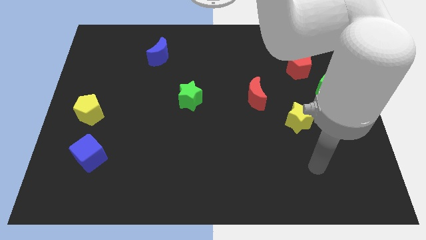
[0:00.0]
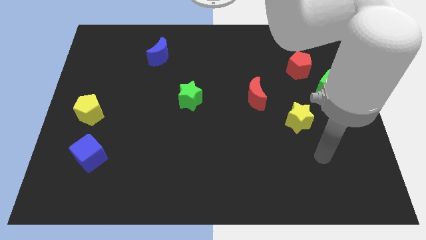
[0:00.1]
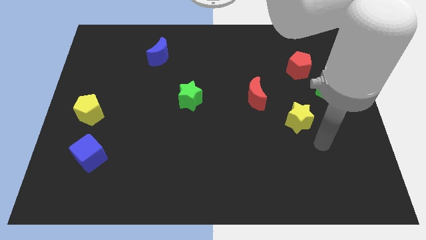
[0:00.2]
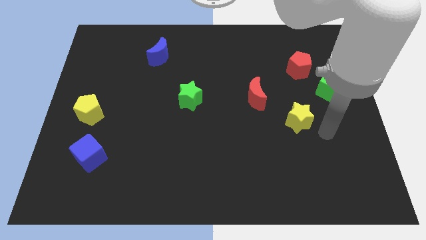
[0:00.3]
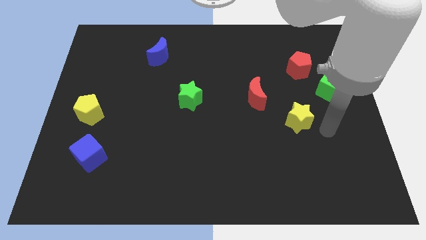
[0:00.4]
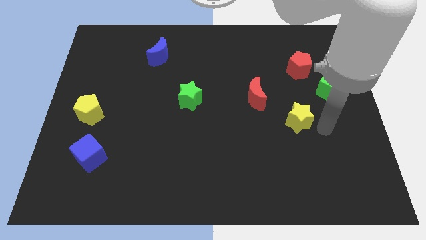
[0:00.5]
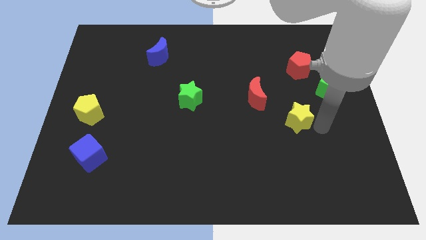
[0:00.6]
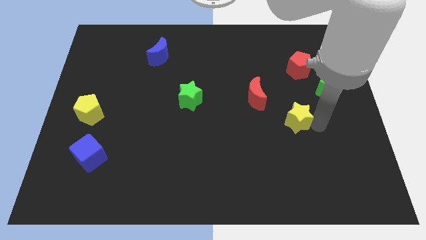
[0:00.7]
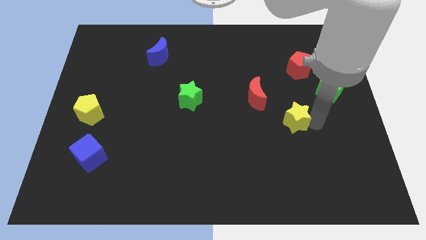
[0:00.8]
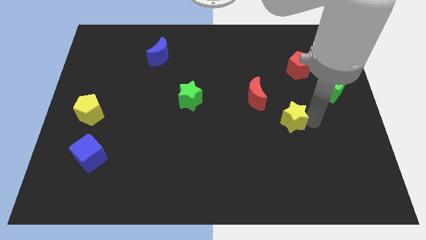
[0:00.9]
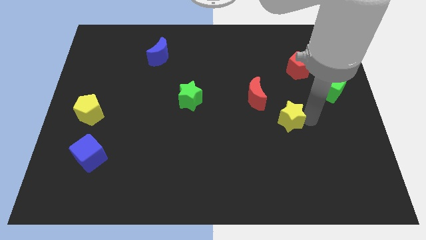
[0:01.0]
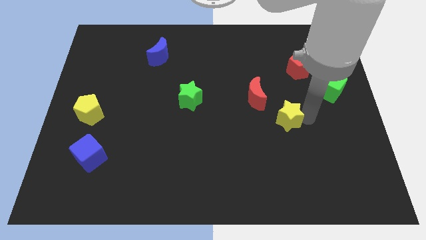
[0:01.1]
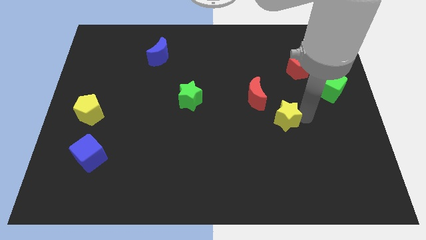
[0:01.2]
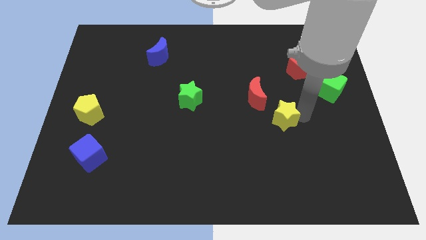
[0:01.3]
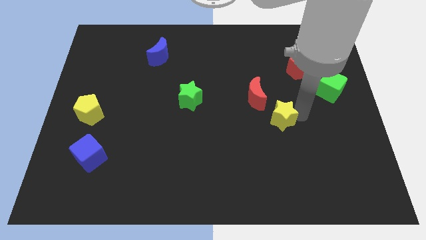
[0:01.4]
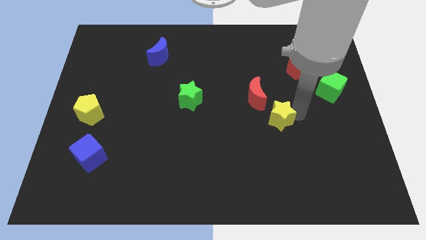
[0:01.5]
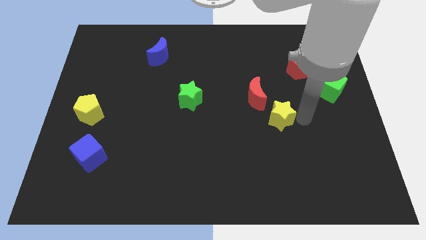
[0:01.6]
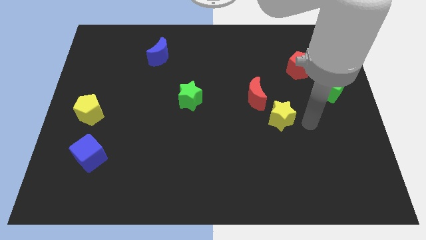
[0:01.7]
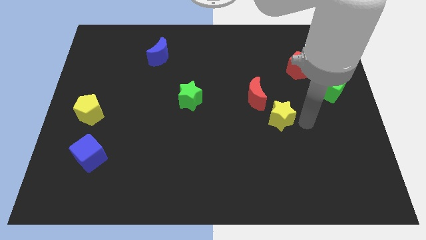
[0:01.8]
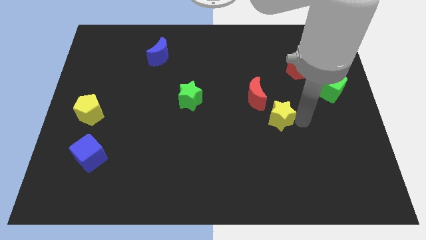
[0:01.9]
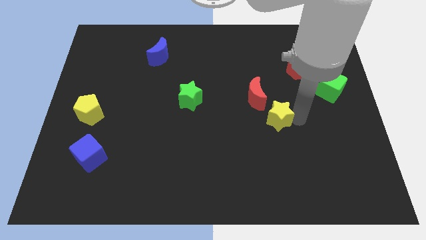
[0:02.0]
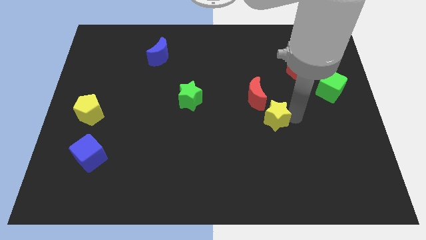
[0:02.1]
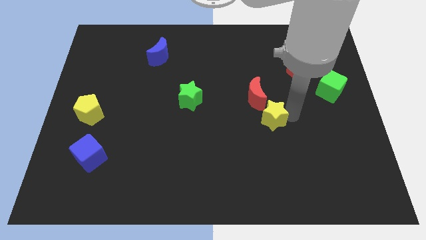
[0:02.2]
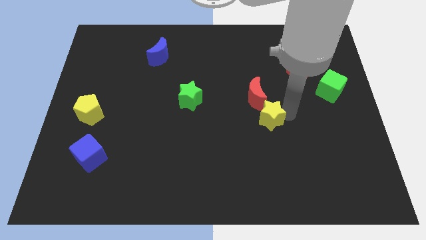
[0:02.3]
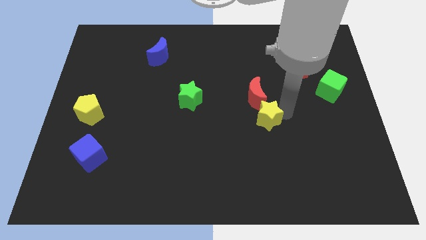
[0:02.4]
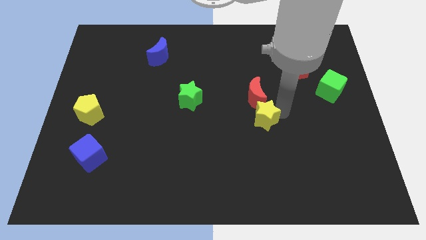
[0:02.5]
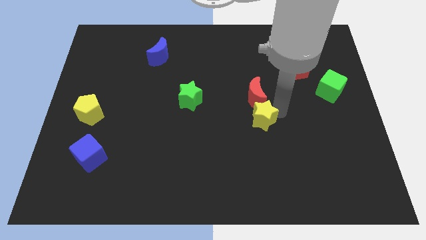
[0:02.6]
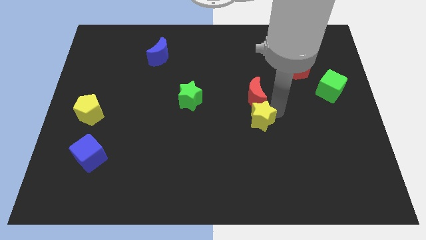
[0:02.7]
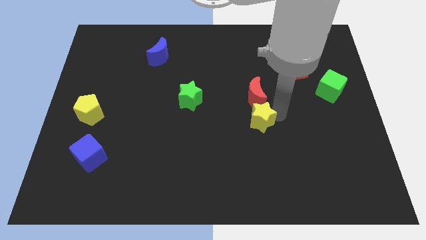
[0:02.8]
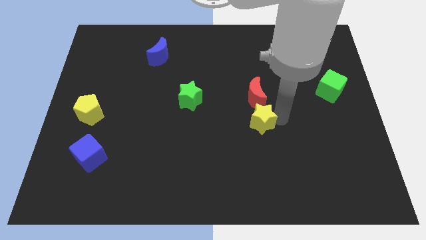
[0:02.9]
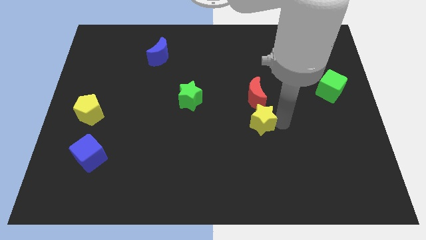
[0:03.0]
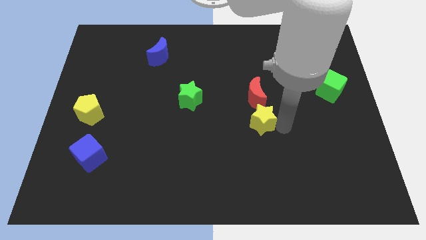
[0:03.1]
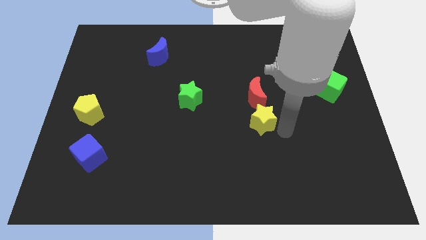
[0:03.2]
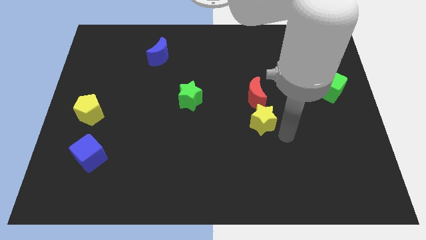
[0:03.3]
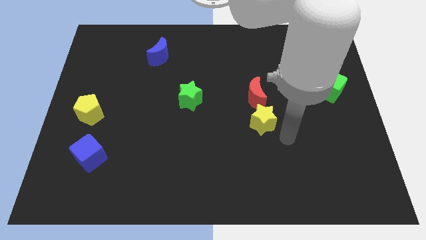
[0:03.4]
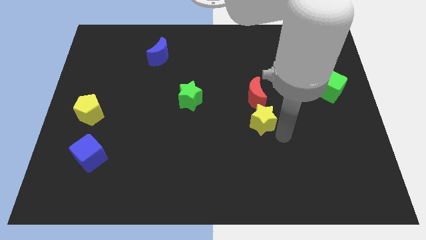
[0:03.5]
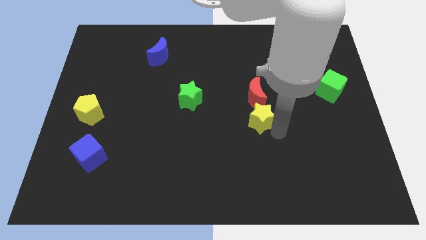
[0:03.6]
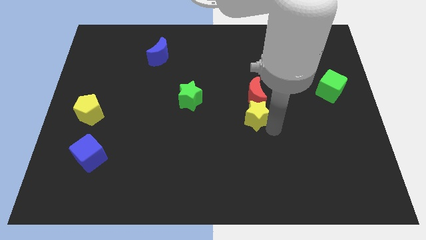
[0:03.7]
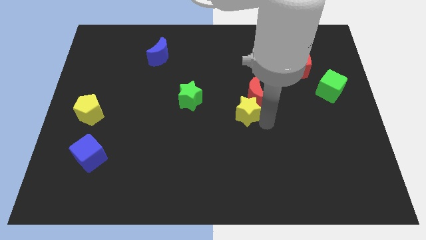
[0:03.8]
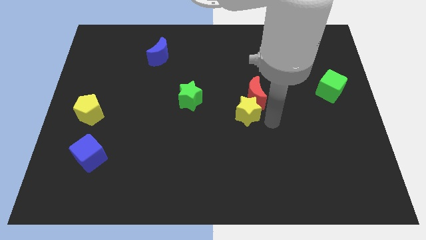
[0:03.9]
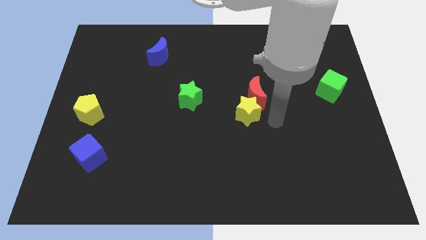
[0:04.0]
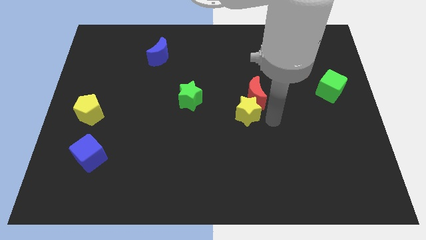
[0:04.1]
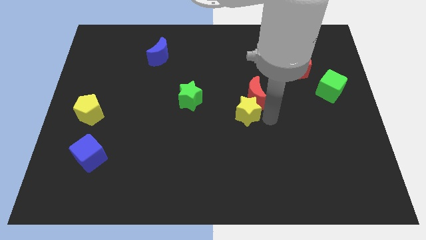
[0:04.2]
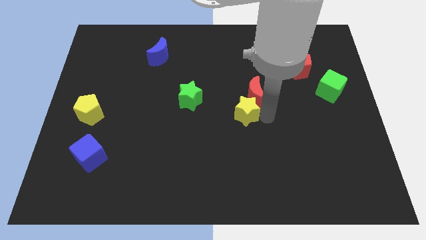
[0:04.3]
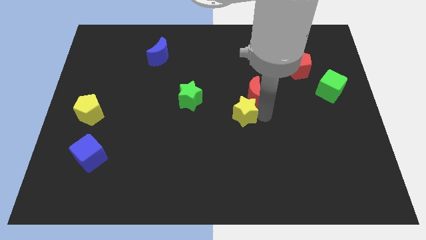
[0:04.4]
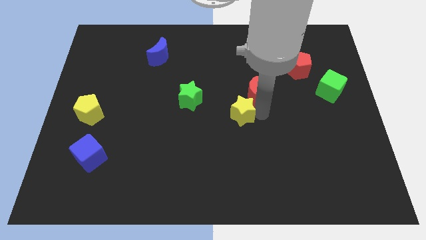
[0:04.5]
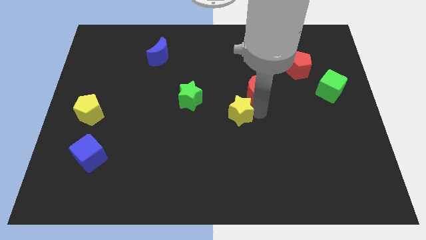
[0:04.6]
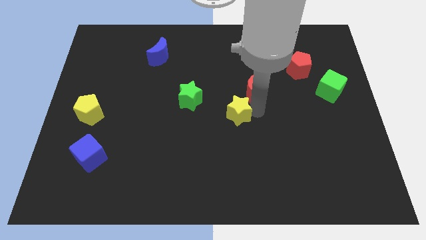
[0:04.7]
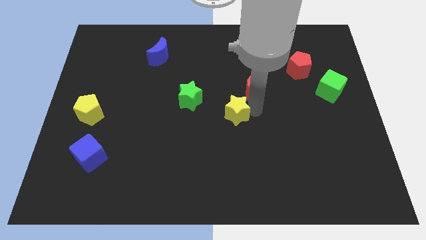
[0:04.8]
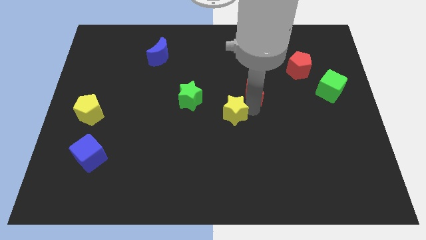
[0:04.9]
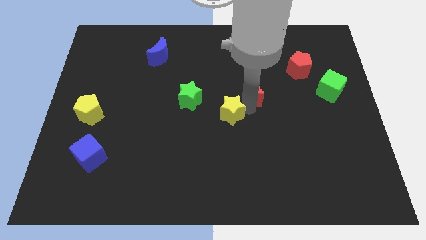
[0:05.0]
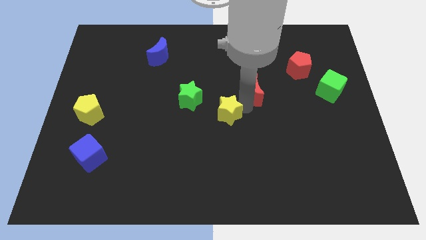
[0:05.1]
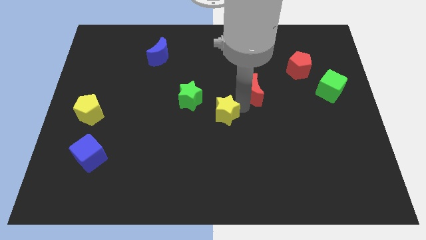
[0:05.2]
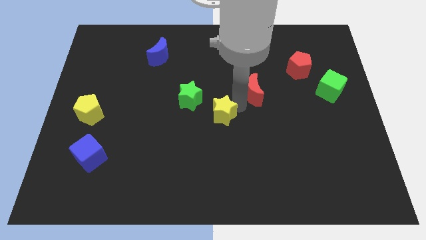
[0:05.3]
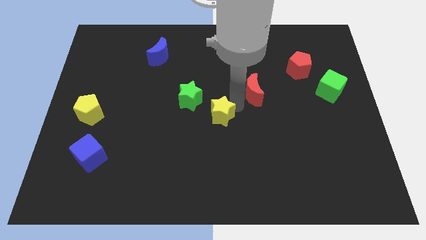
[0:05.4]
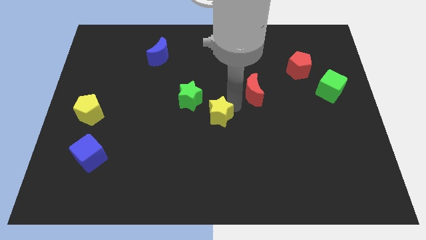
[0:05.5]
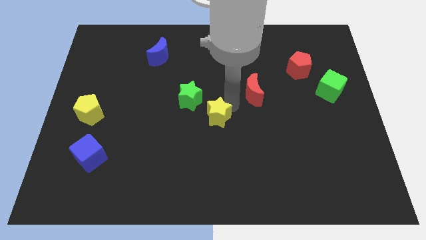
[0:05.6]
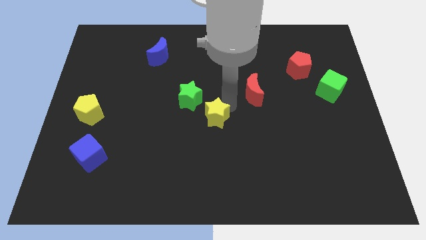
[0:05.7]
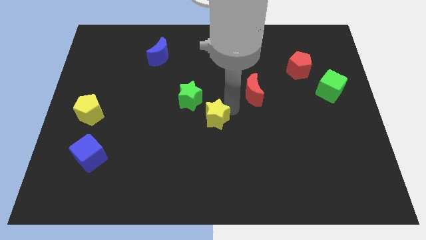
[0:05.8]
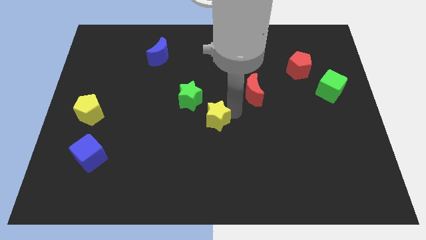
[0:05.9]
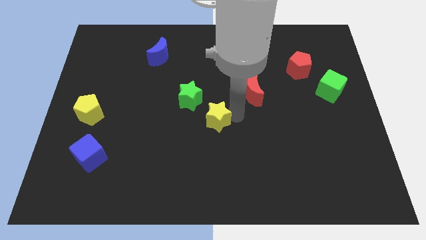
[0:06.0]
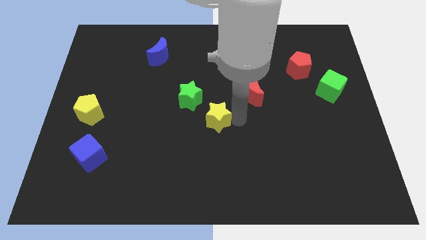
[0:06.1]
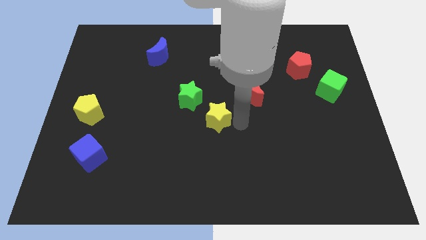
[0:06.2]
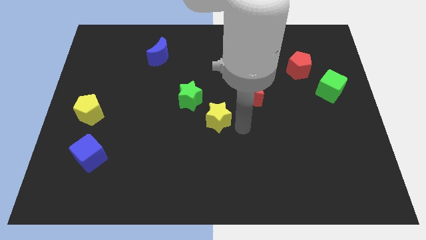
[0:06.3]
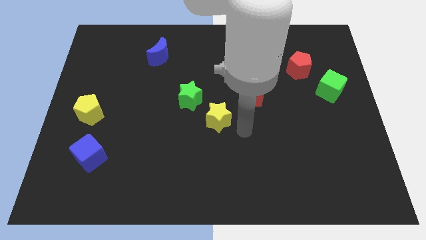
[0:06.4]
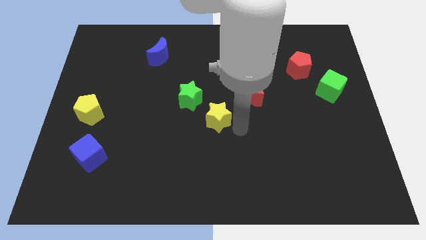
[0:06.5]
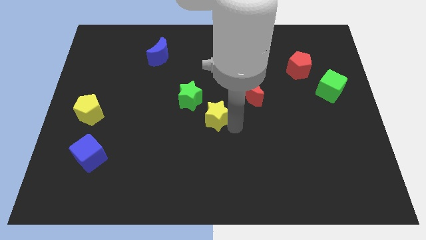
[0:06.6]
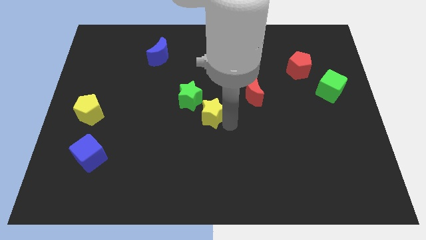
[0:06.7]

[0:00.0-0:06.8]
move the yellow star to the left

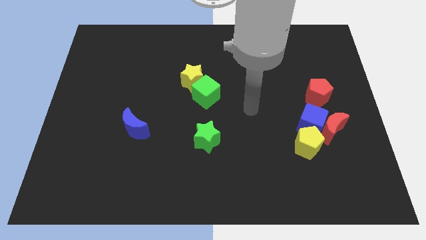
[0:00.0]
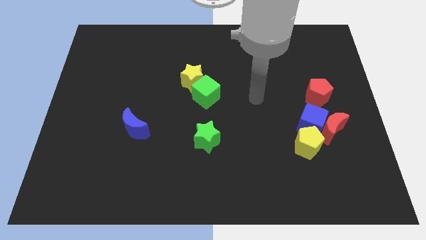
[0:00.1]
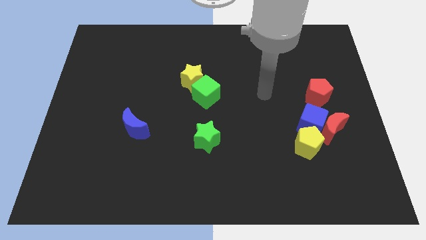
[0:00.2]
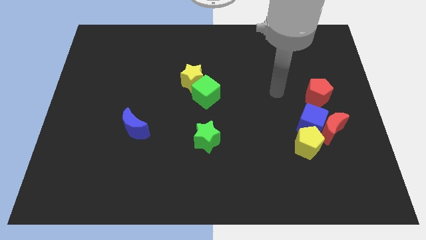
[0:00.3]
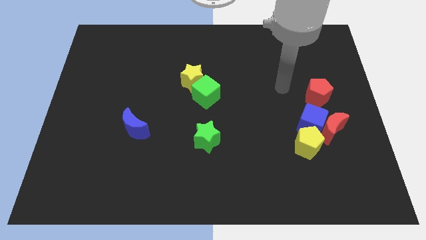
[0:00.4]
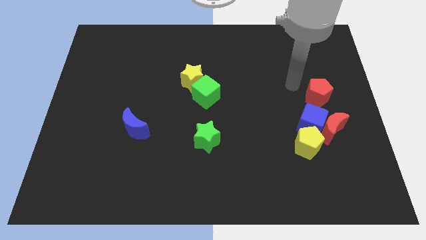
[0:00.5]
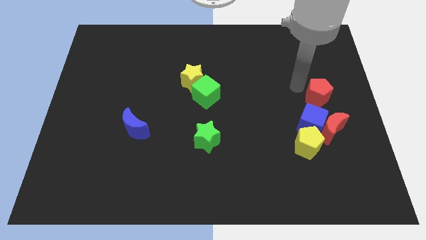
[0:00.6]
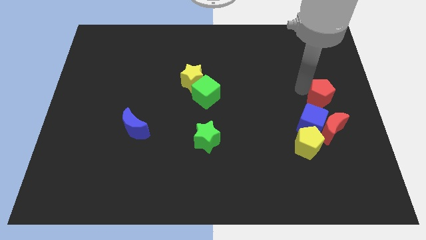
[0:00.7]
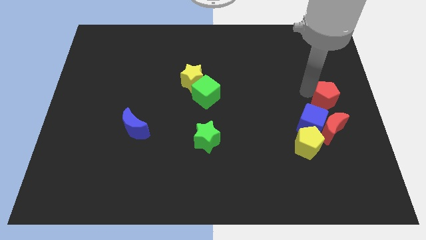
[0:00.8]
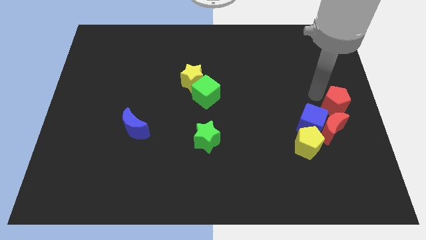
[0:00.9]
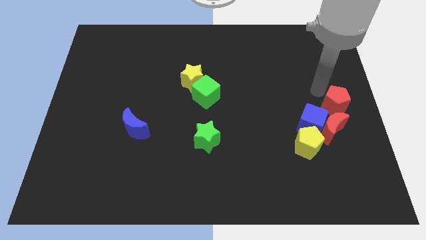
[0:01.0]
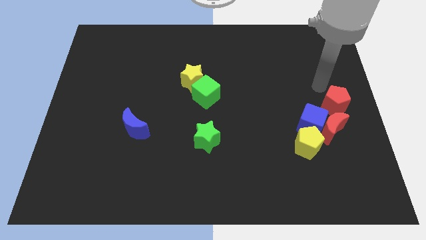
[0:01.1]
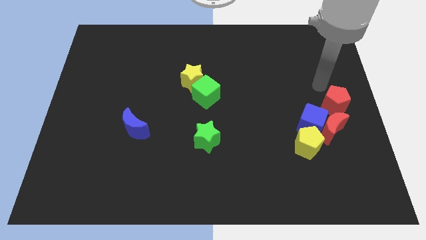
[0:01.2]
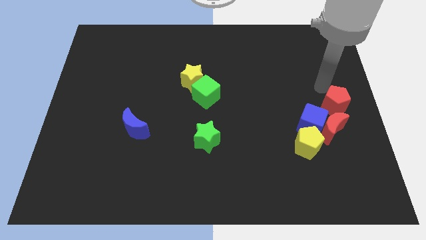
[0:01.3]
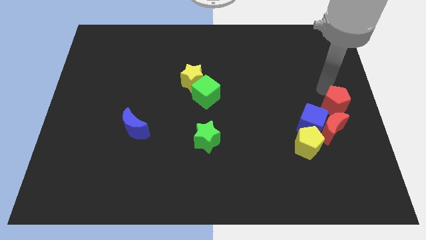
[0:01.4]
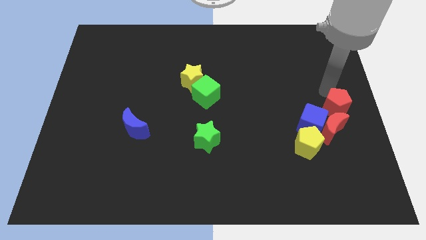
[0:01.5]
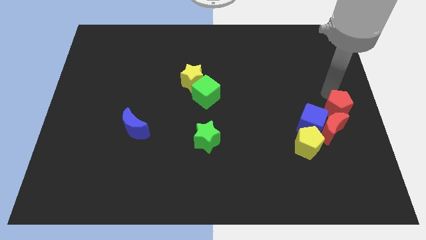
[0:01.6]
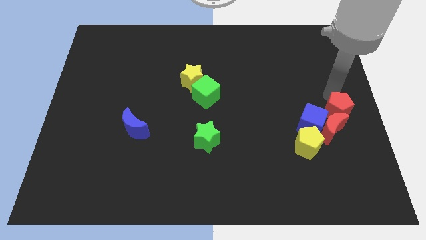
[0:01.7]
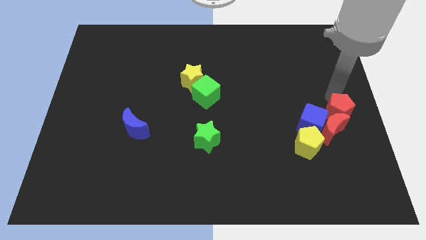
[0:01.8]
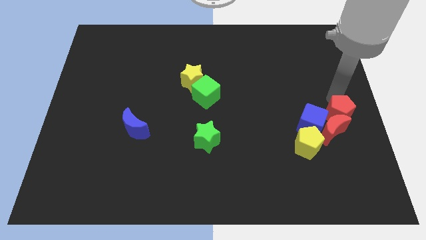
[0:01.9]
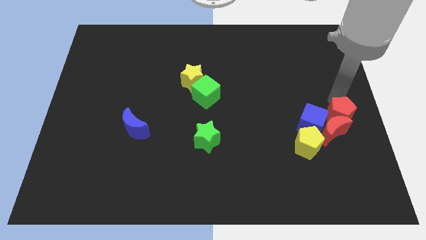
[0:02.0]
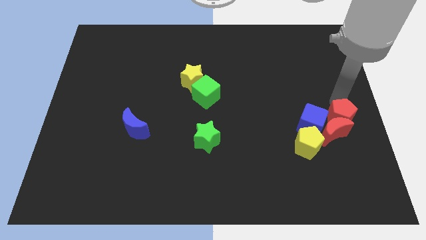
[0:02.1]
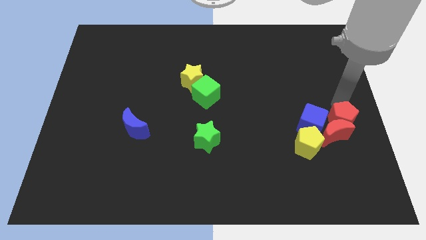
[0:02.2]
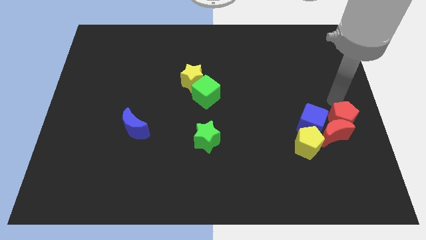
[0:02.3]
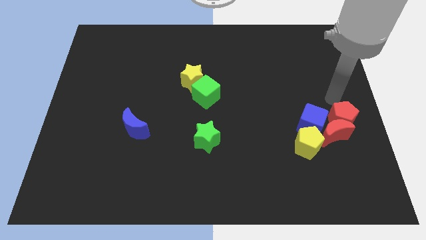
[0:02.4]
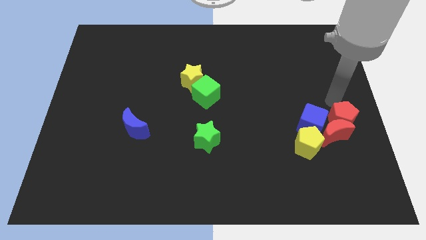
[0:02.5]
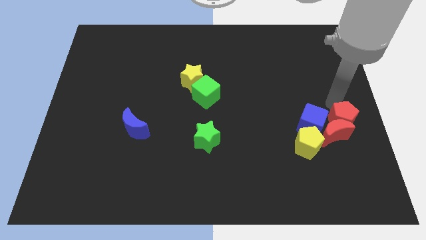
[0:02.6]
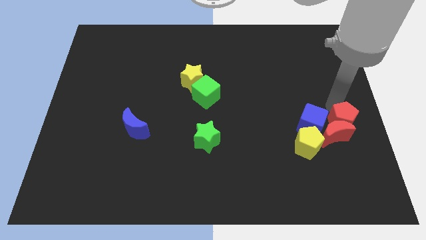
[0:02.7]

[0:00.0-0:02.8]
slide the red pentagon a bit downwards
